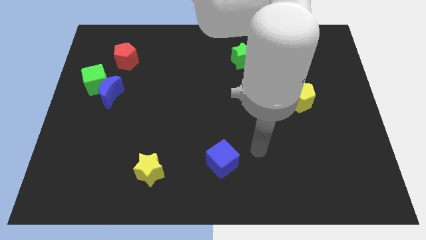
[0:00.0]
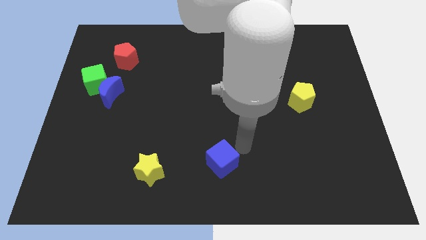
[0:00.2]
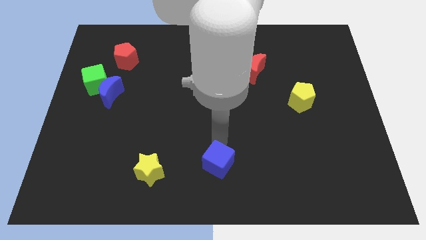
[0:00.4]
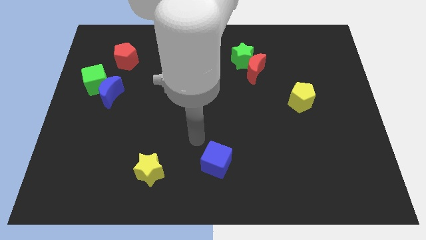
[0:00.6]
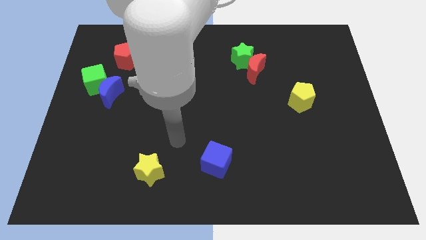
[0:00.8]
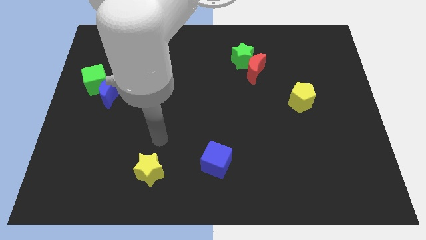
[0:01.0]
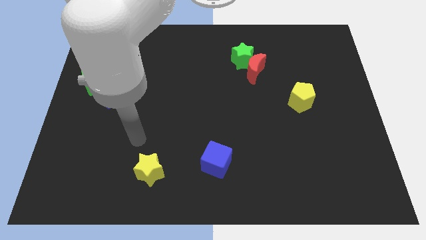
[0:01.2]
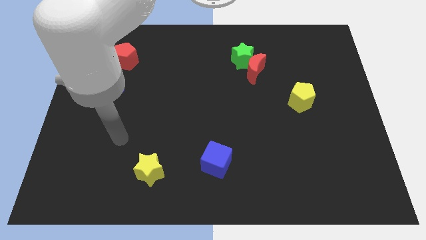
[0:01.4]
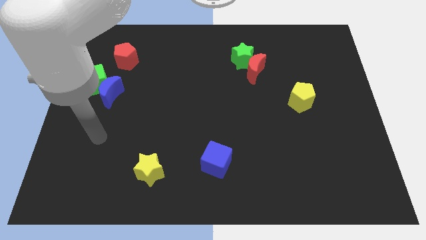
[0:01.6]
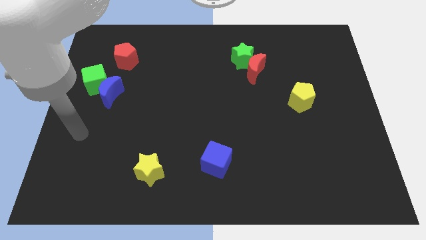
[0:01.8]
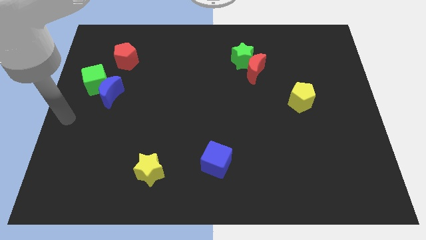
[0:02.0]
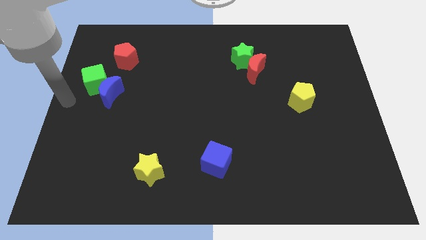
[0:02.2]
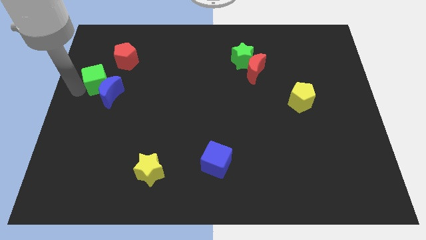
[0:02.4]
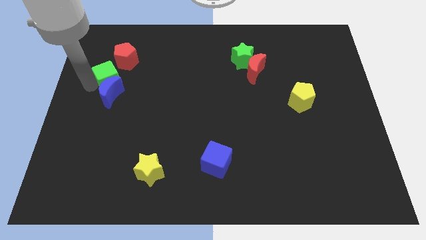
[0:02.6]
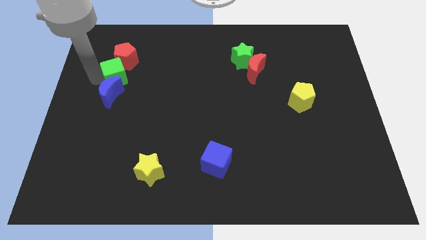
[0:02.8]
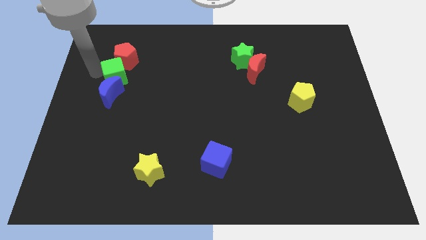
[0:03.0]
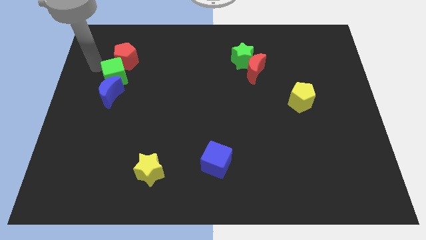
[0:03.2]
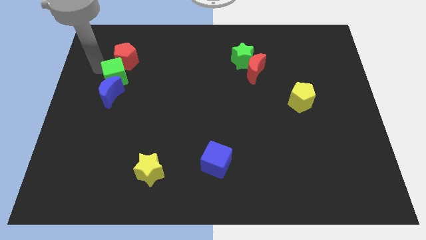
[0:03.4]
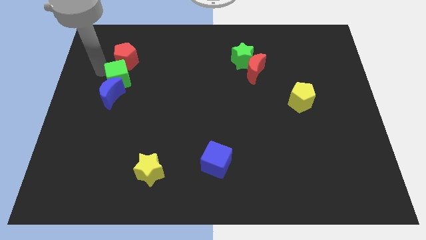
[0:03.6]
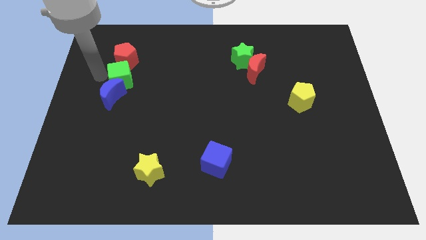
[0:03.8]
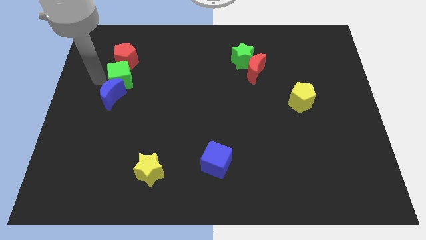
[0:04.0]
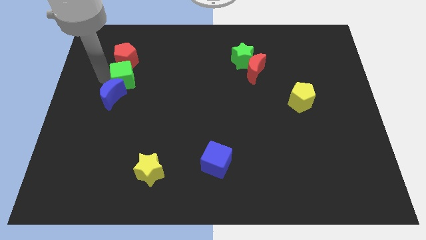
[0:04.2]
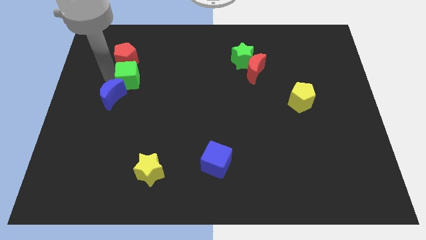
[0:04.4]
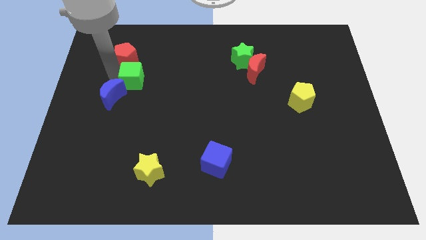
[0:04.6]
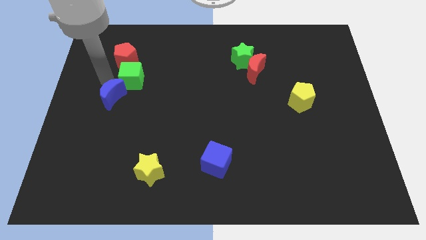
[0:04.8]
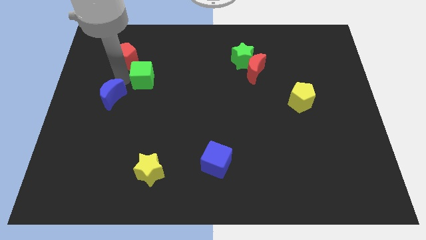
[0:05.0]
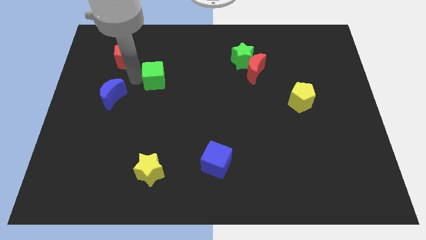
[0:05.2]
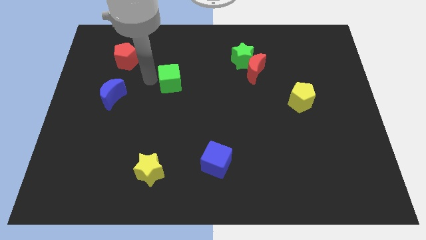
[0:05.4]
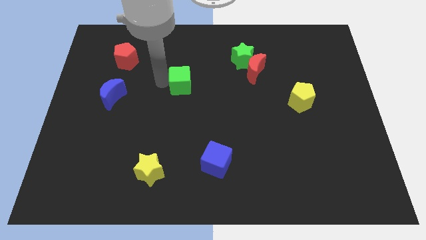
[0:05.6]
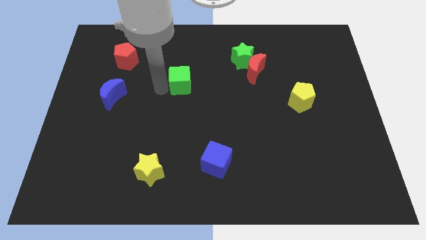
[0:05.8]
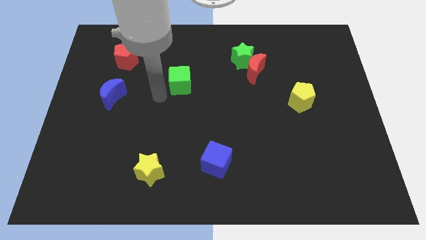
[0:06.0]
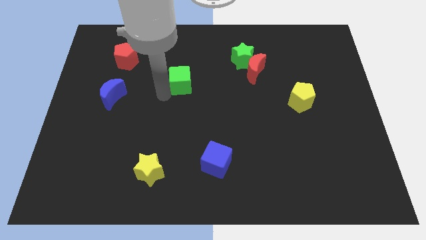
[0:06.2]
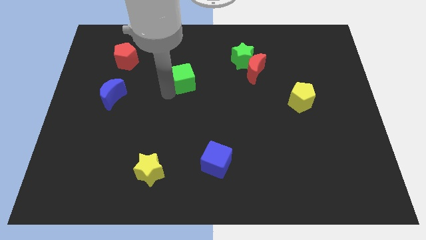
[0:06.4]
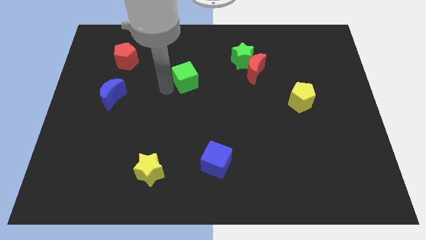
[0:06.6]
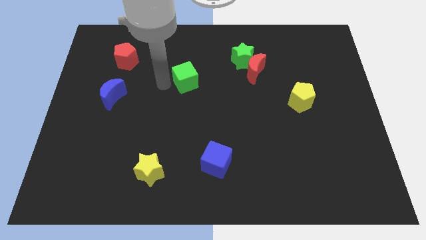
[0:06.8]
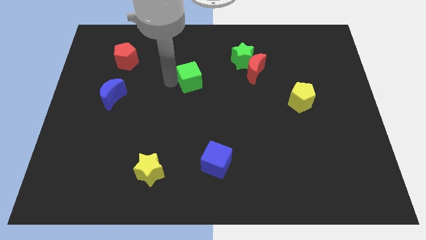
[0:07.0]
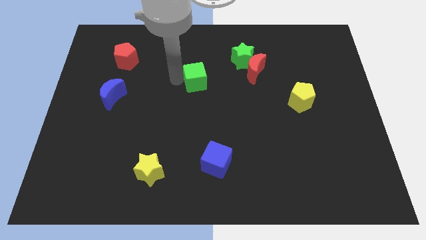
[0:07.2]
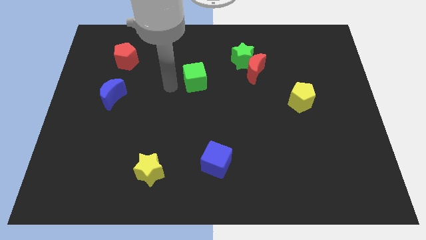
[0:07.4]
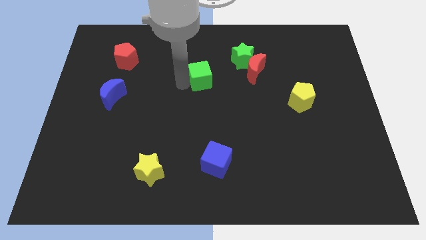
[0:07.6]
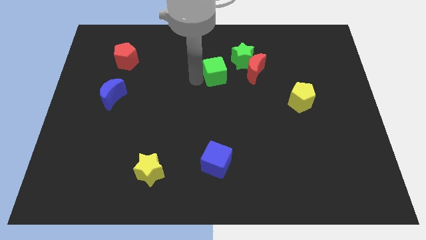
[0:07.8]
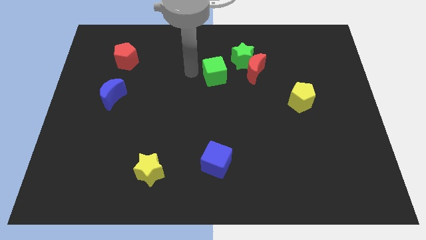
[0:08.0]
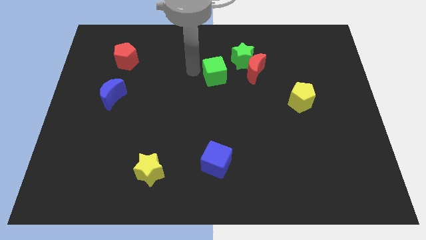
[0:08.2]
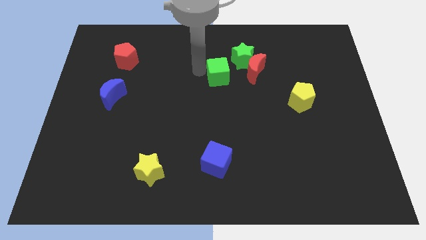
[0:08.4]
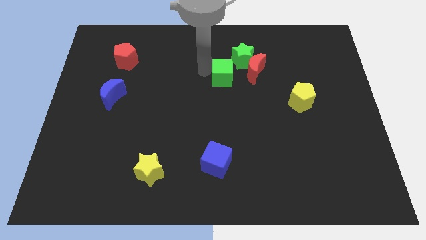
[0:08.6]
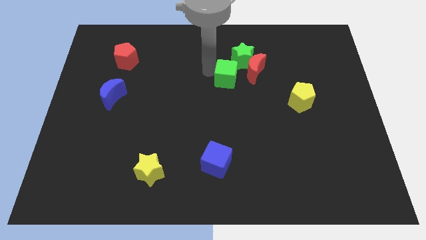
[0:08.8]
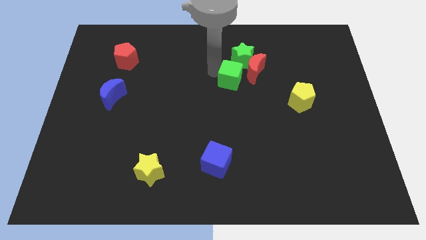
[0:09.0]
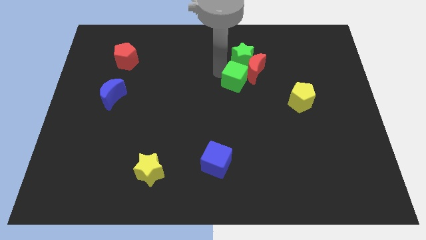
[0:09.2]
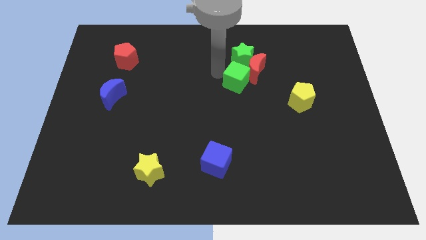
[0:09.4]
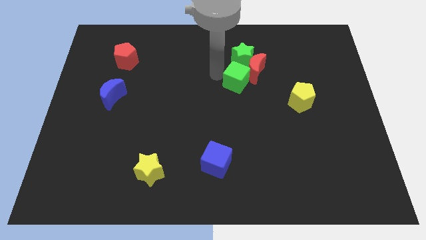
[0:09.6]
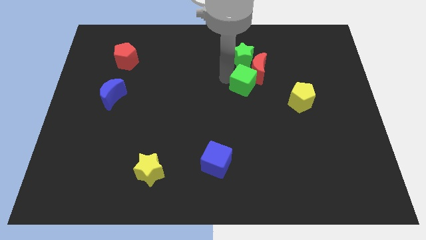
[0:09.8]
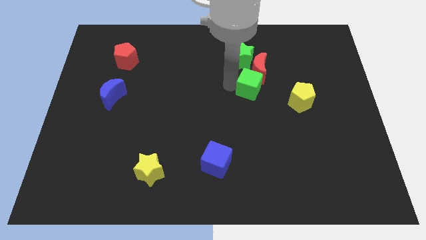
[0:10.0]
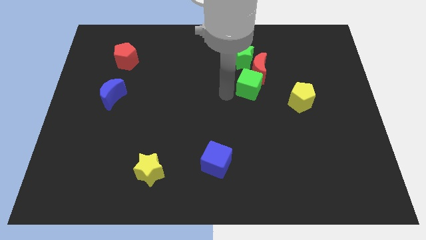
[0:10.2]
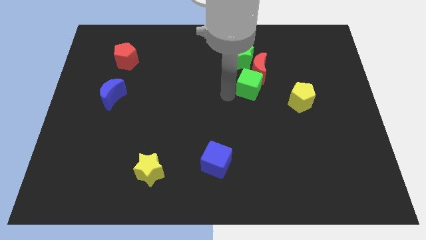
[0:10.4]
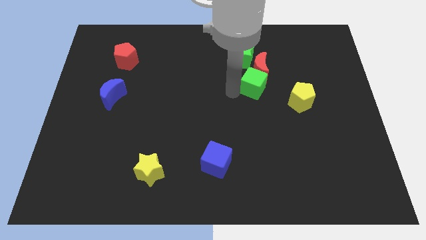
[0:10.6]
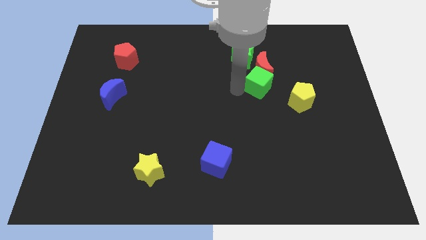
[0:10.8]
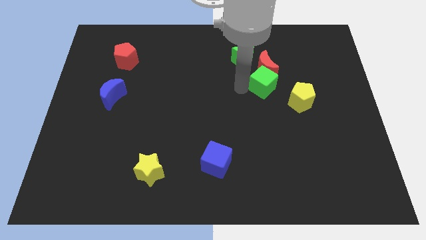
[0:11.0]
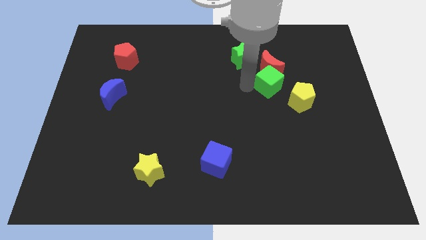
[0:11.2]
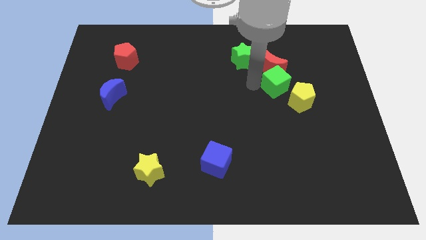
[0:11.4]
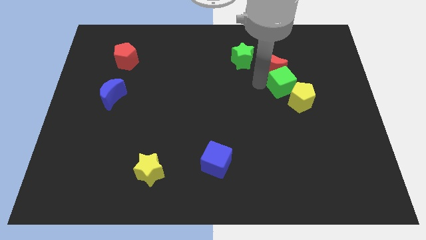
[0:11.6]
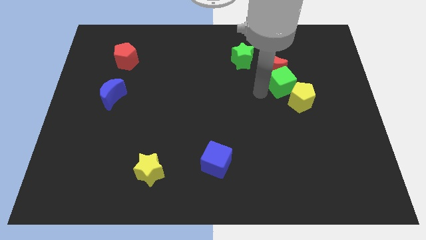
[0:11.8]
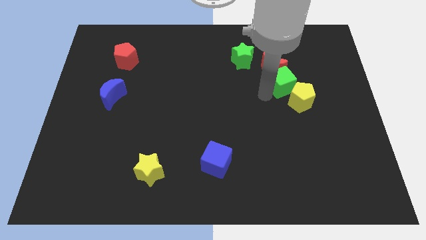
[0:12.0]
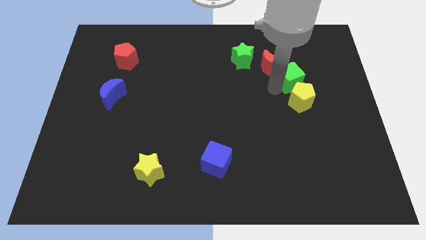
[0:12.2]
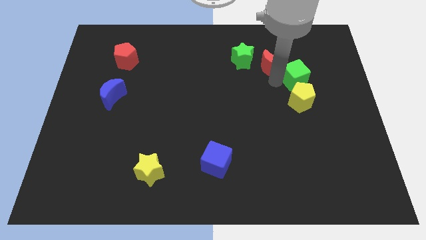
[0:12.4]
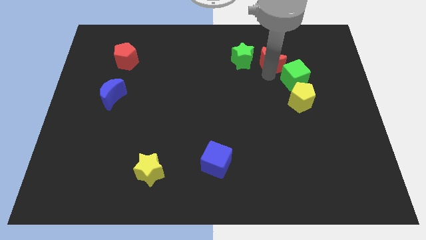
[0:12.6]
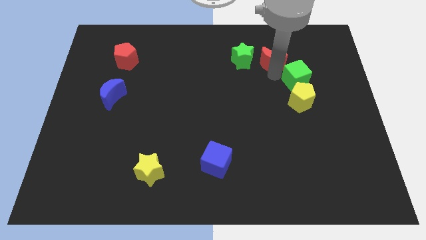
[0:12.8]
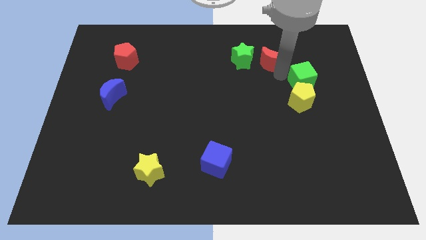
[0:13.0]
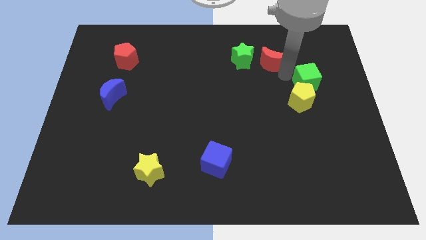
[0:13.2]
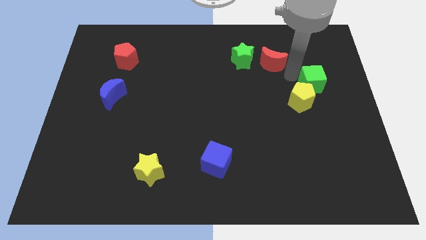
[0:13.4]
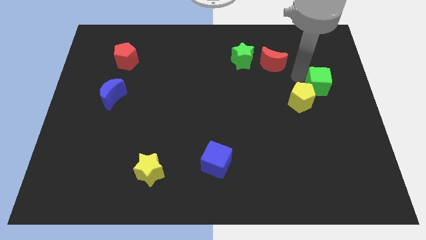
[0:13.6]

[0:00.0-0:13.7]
move the green cube to the right side
